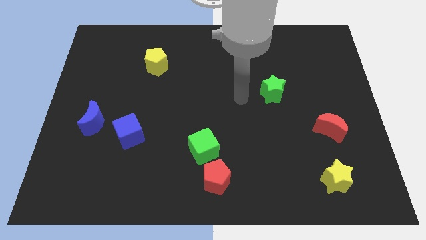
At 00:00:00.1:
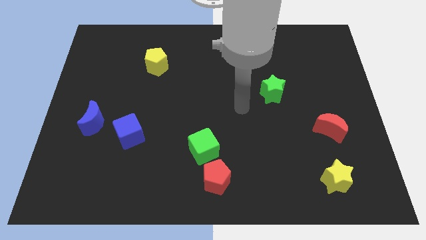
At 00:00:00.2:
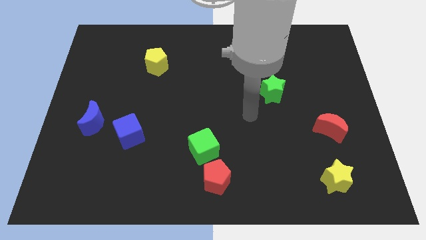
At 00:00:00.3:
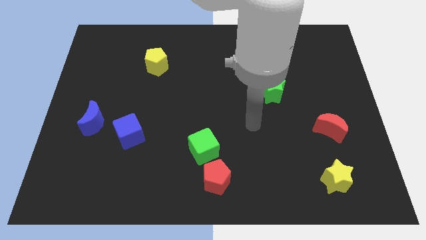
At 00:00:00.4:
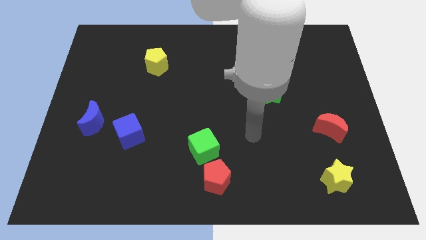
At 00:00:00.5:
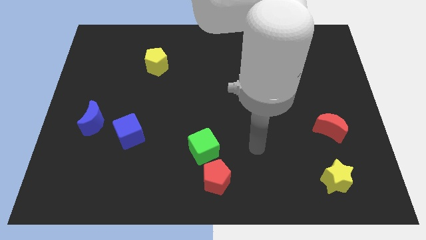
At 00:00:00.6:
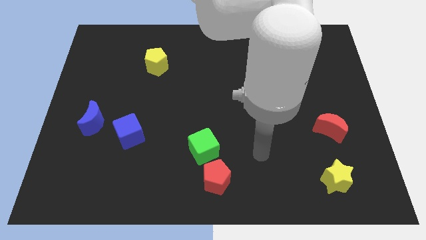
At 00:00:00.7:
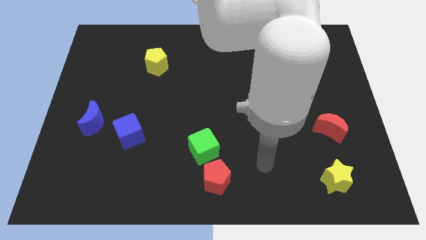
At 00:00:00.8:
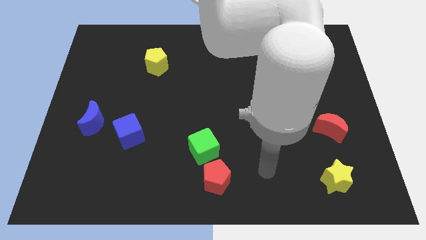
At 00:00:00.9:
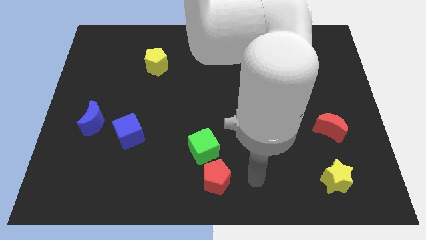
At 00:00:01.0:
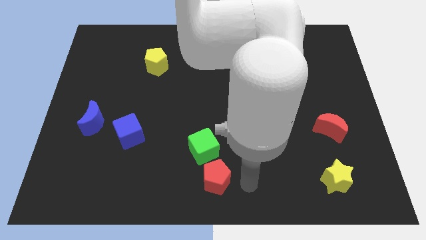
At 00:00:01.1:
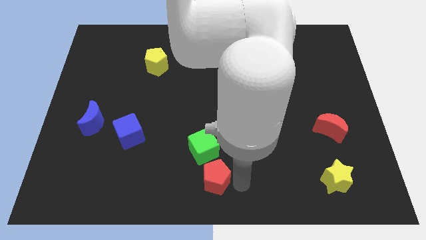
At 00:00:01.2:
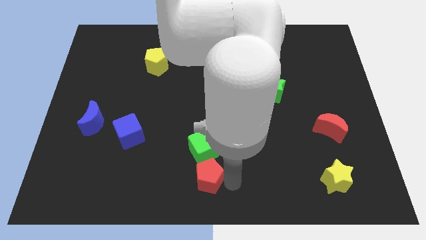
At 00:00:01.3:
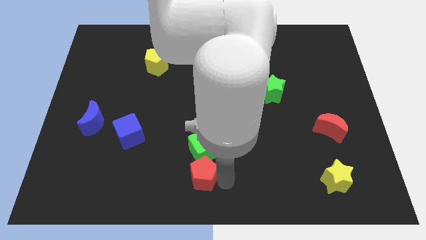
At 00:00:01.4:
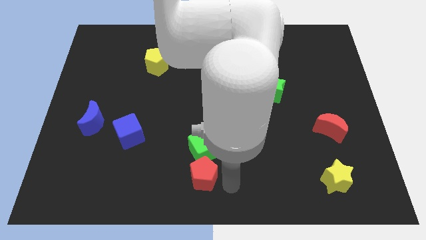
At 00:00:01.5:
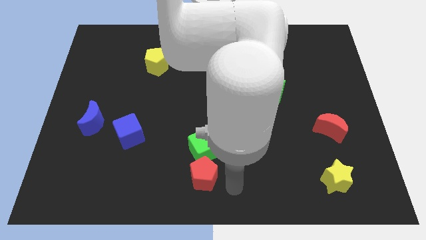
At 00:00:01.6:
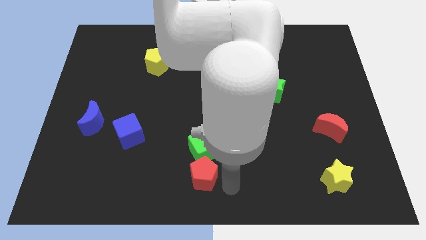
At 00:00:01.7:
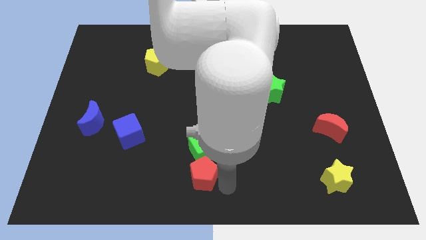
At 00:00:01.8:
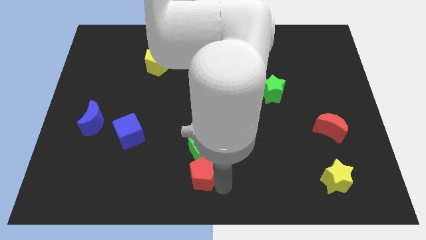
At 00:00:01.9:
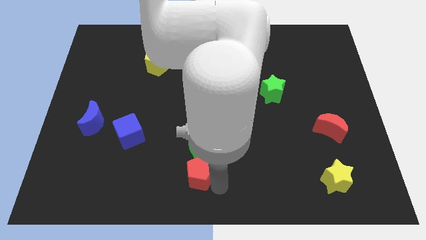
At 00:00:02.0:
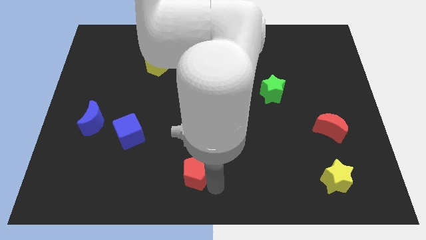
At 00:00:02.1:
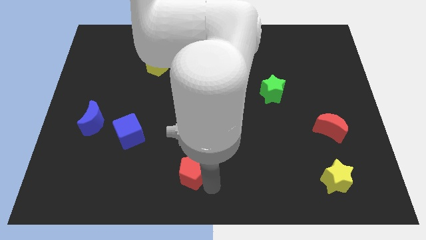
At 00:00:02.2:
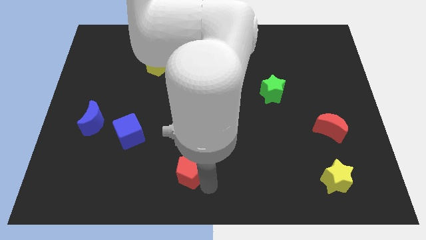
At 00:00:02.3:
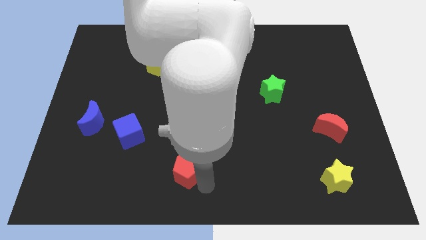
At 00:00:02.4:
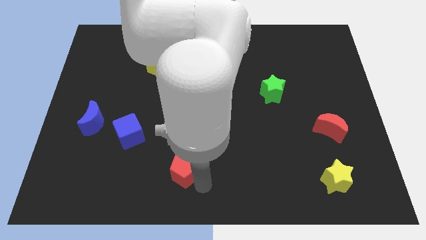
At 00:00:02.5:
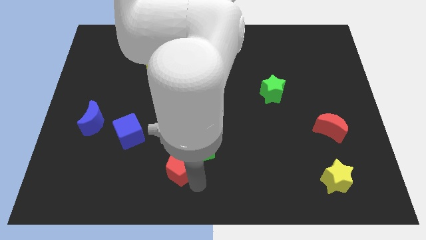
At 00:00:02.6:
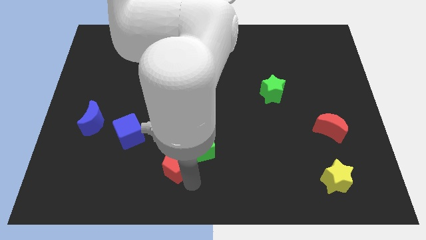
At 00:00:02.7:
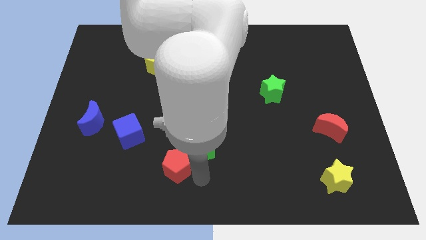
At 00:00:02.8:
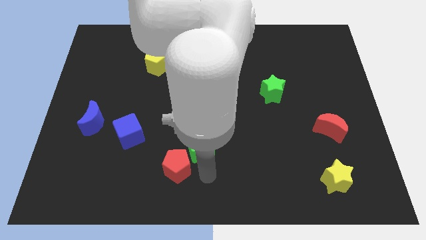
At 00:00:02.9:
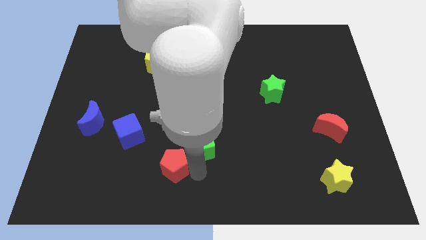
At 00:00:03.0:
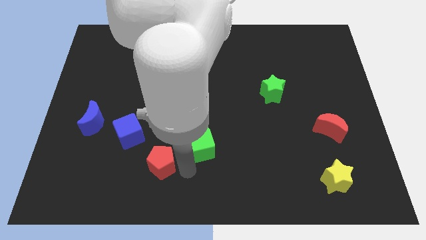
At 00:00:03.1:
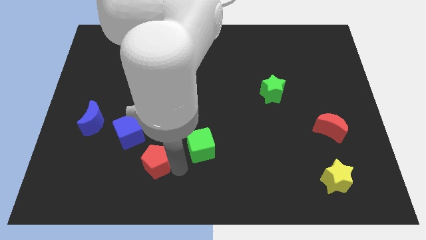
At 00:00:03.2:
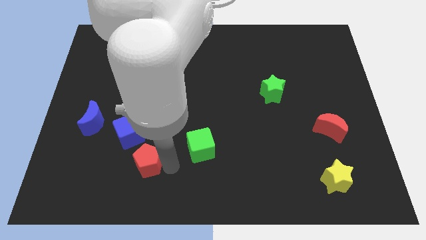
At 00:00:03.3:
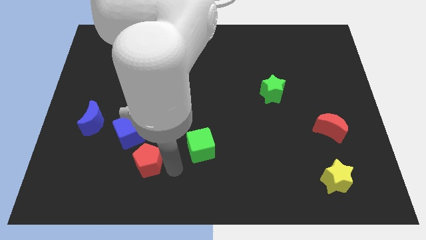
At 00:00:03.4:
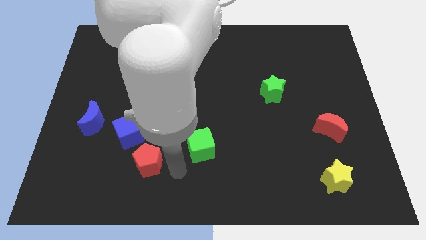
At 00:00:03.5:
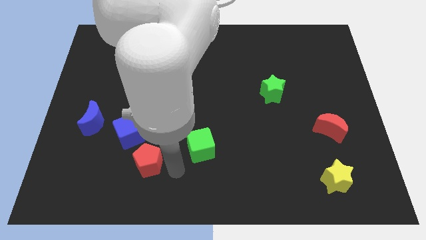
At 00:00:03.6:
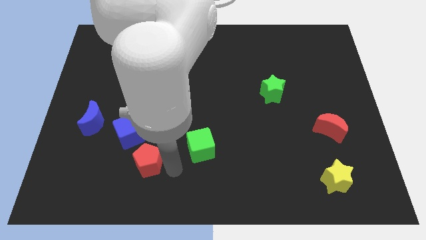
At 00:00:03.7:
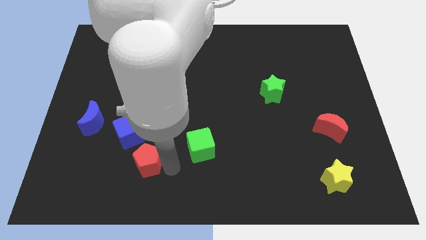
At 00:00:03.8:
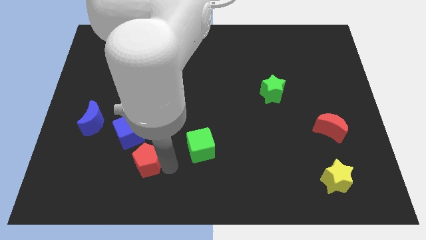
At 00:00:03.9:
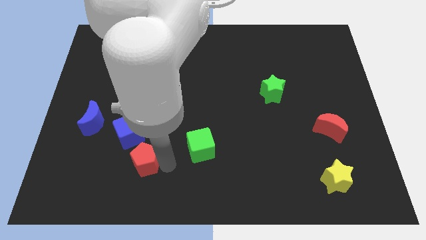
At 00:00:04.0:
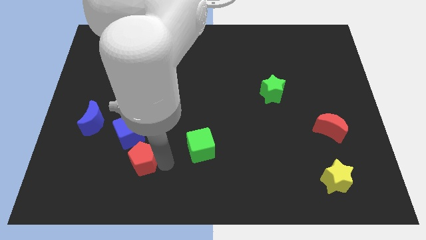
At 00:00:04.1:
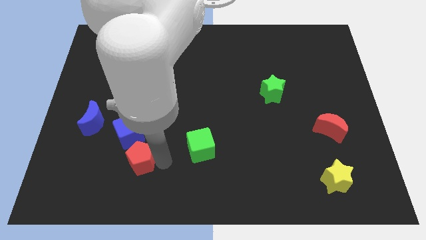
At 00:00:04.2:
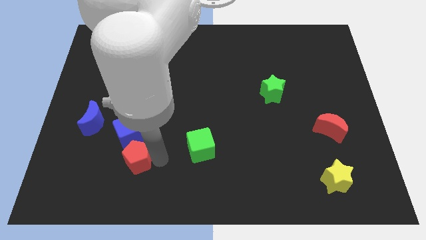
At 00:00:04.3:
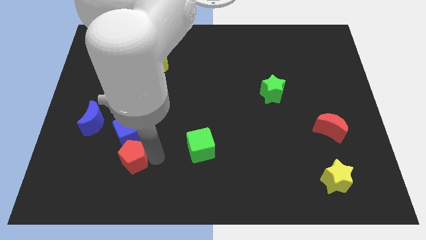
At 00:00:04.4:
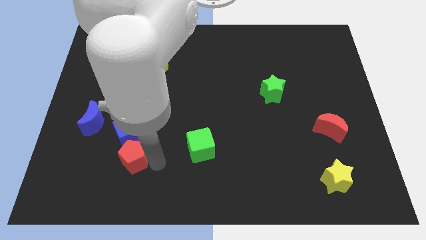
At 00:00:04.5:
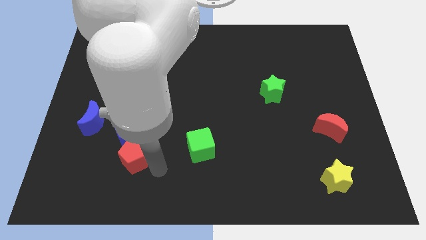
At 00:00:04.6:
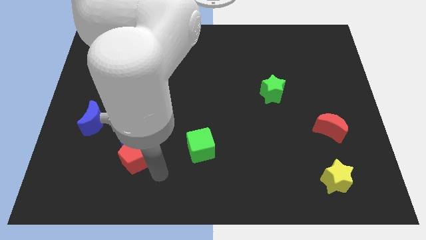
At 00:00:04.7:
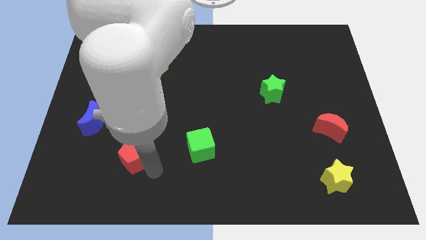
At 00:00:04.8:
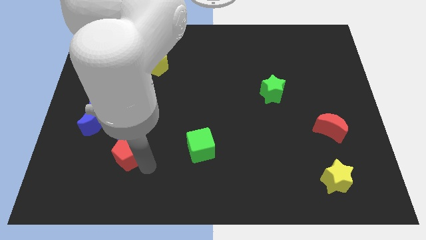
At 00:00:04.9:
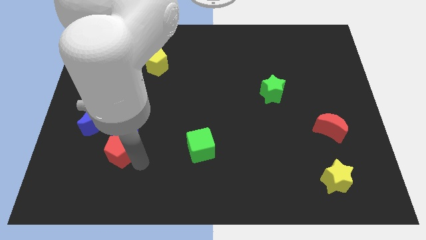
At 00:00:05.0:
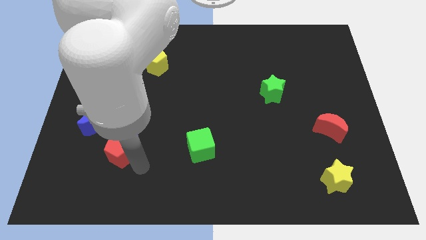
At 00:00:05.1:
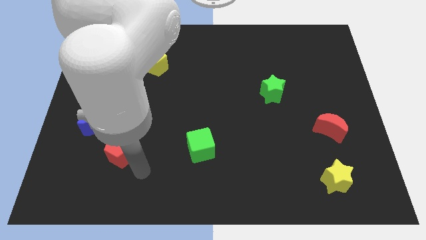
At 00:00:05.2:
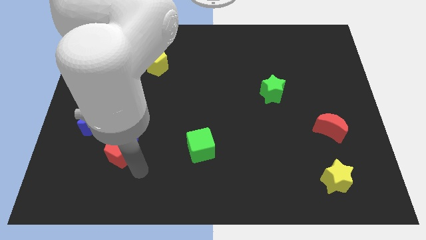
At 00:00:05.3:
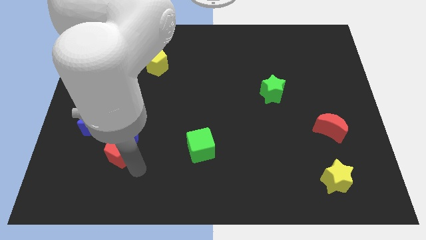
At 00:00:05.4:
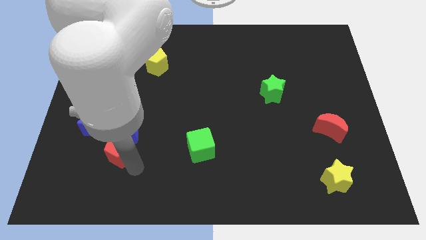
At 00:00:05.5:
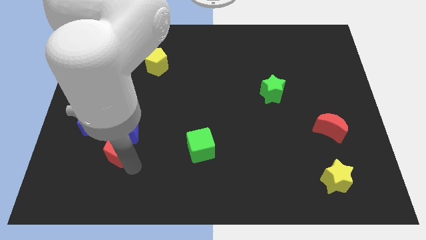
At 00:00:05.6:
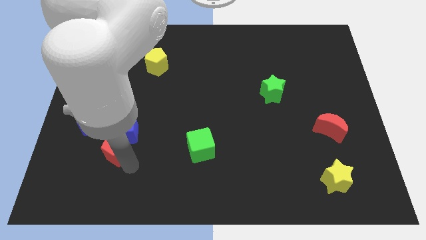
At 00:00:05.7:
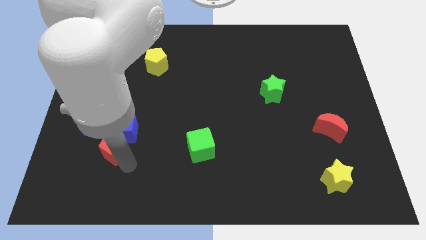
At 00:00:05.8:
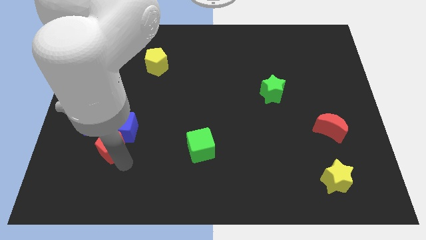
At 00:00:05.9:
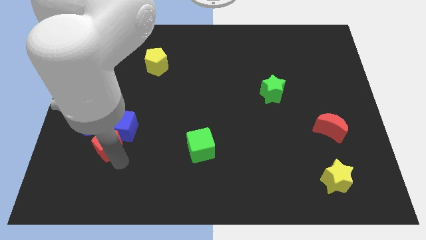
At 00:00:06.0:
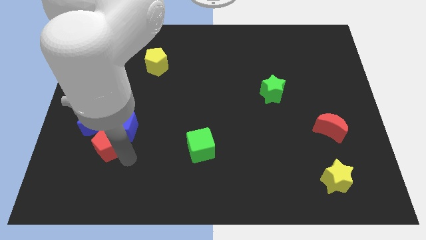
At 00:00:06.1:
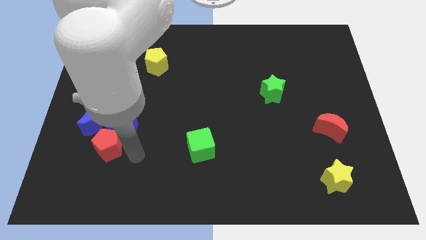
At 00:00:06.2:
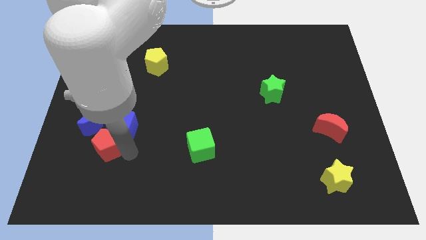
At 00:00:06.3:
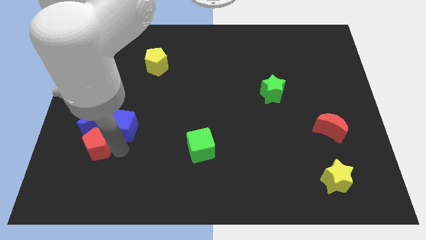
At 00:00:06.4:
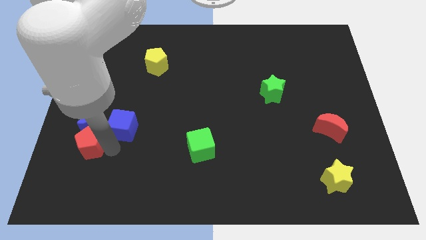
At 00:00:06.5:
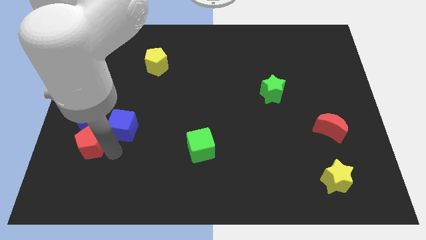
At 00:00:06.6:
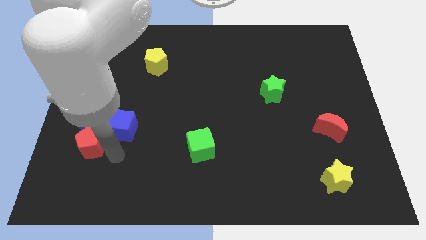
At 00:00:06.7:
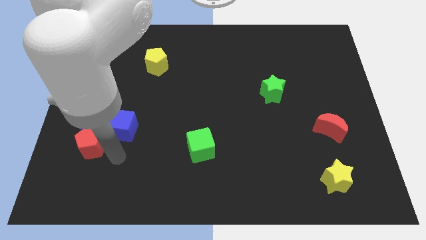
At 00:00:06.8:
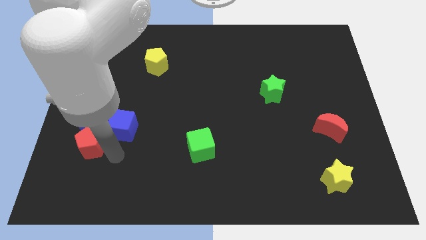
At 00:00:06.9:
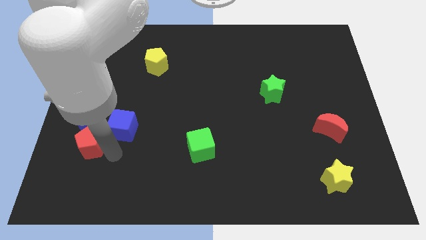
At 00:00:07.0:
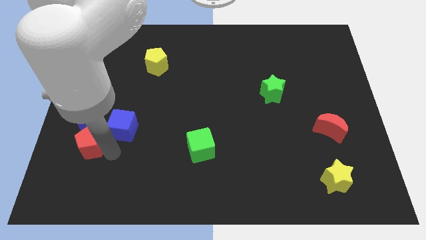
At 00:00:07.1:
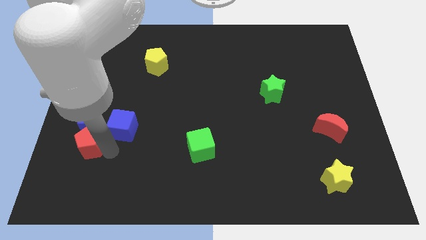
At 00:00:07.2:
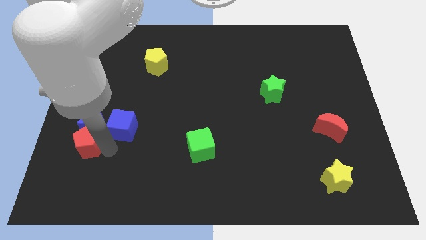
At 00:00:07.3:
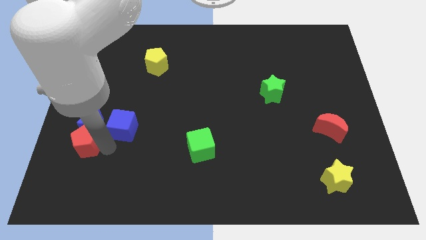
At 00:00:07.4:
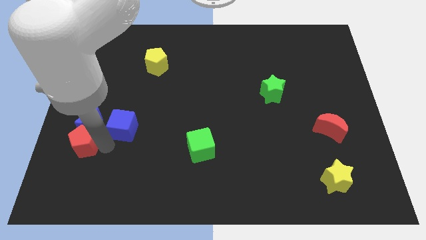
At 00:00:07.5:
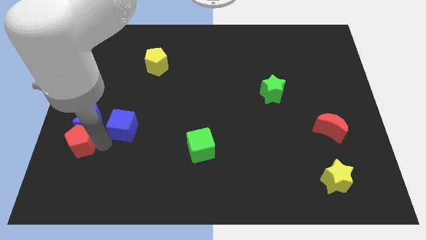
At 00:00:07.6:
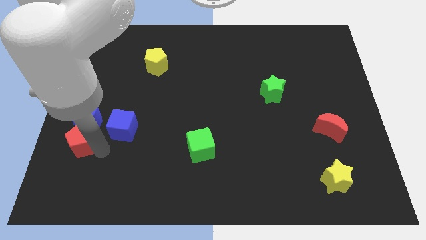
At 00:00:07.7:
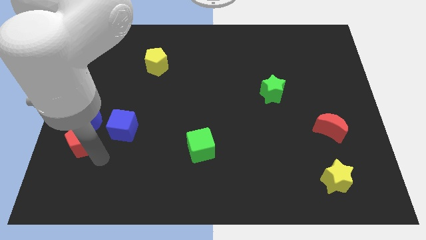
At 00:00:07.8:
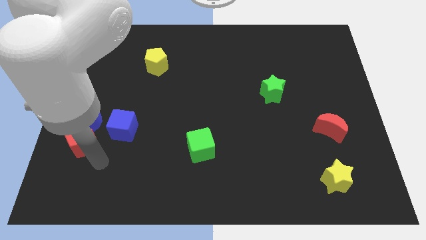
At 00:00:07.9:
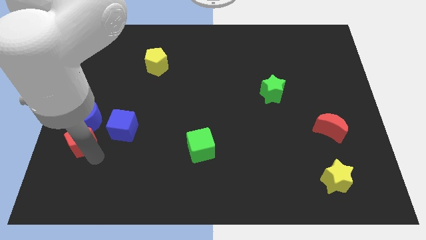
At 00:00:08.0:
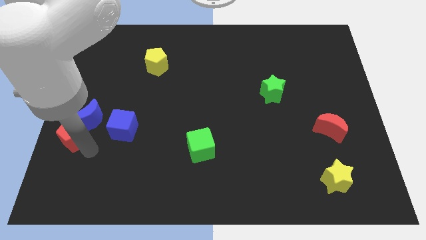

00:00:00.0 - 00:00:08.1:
slide the red pentagon to the center left
